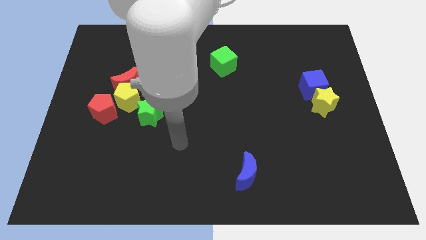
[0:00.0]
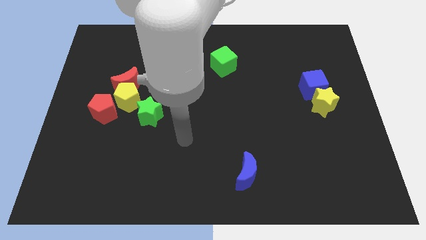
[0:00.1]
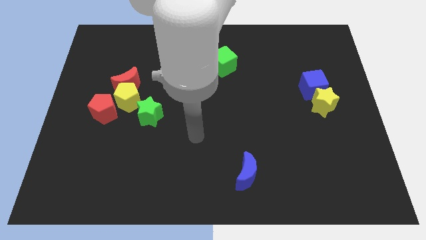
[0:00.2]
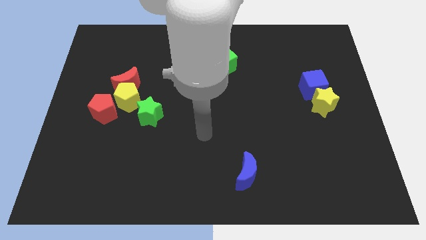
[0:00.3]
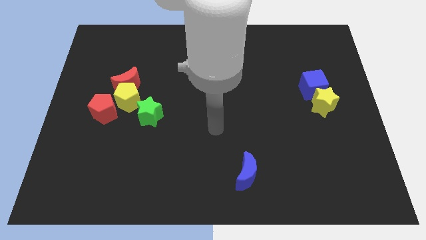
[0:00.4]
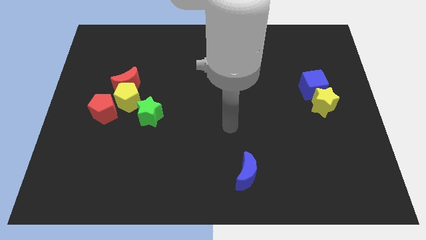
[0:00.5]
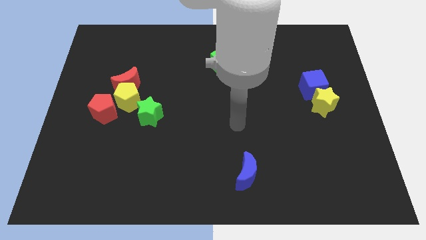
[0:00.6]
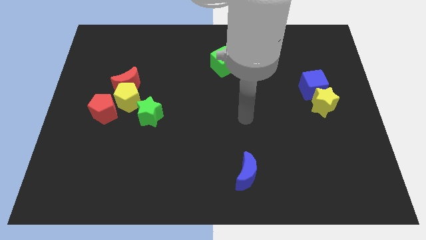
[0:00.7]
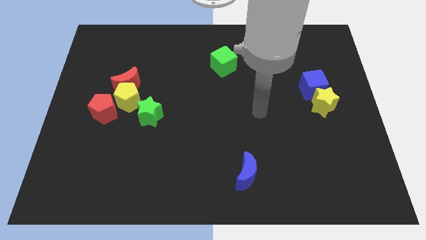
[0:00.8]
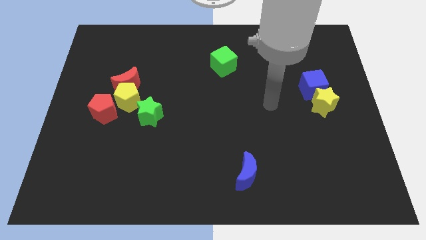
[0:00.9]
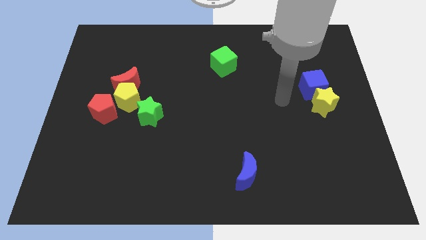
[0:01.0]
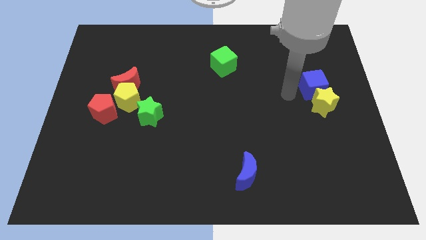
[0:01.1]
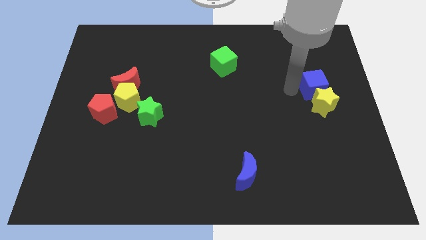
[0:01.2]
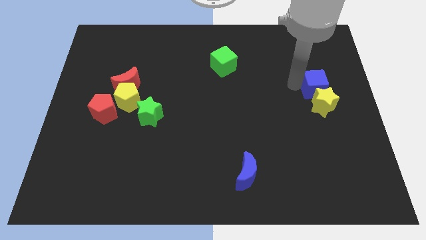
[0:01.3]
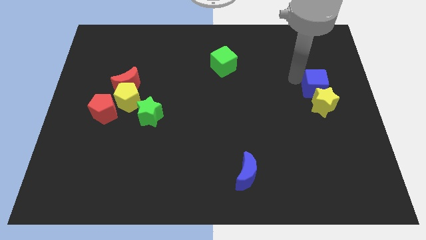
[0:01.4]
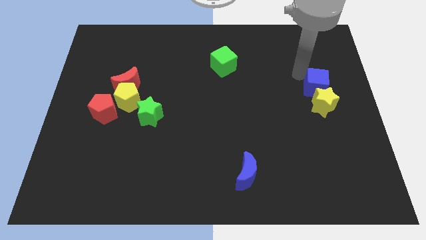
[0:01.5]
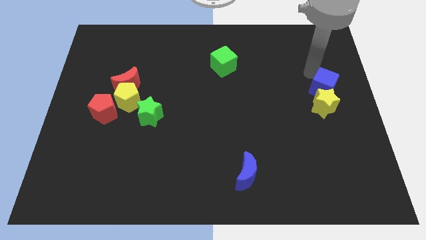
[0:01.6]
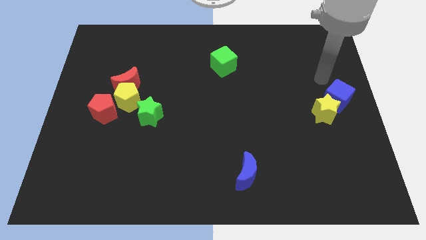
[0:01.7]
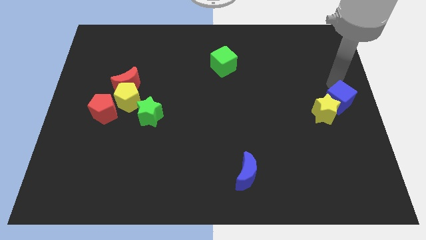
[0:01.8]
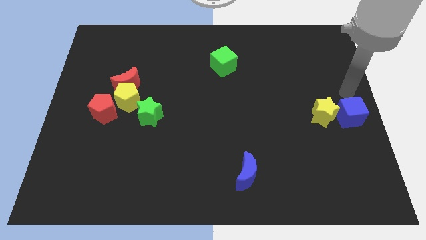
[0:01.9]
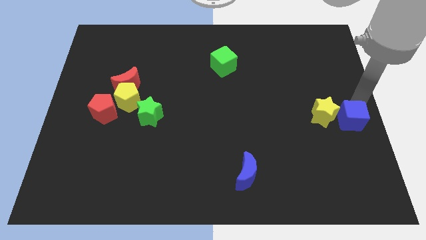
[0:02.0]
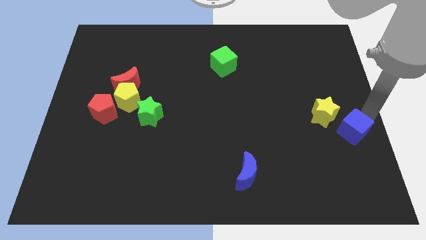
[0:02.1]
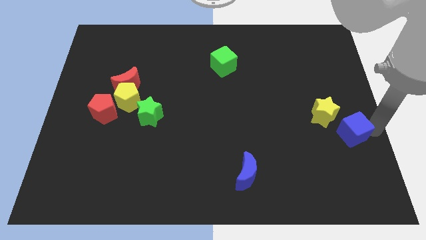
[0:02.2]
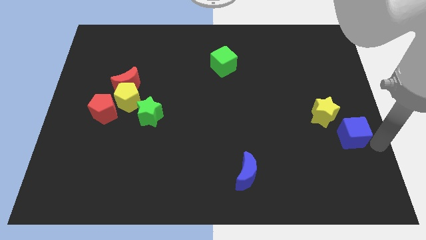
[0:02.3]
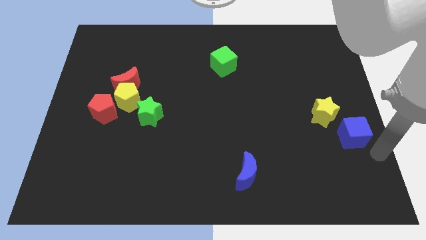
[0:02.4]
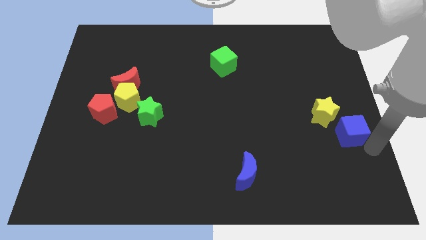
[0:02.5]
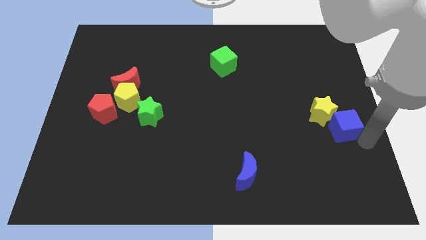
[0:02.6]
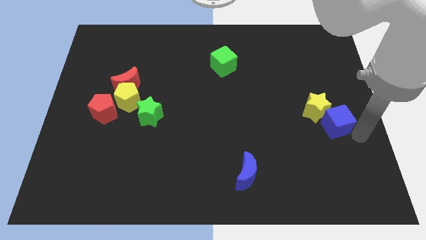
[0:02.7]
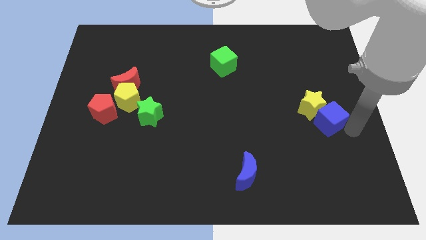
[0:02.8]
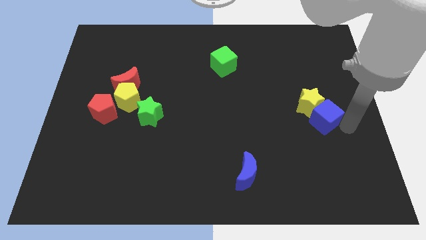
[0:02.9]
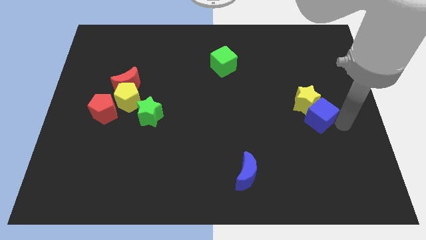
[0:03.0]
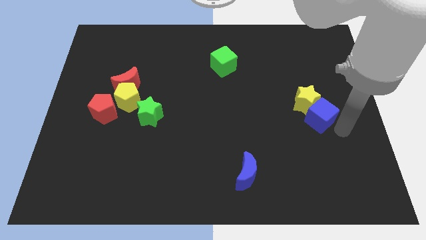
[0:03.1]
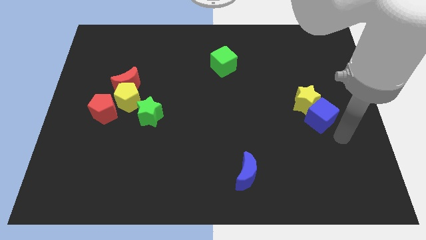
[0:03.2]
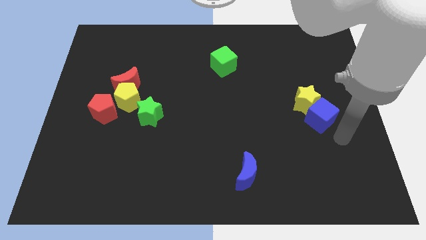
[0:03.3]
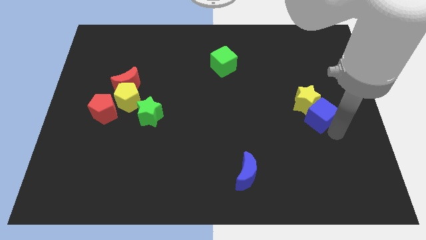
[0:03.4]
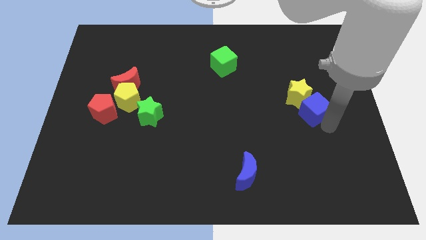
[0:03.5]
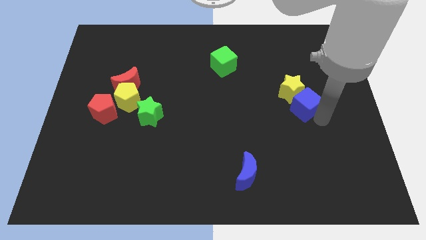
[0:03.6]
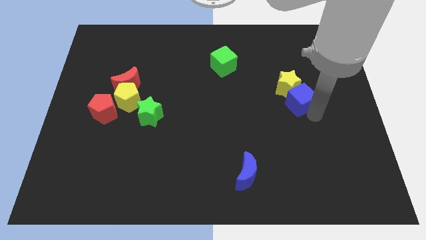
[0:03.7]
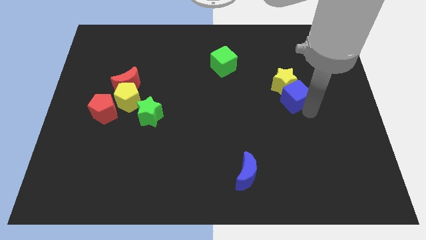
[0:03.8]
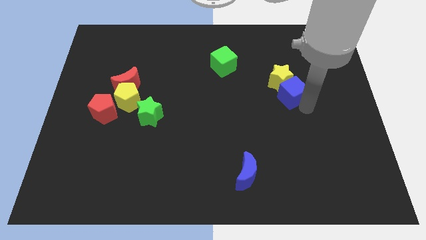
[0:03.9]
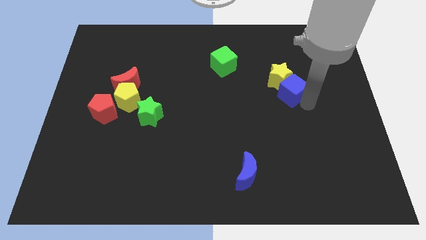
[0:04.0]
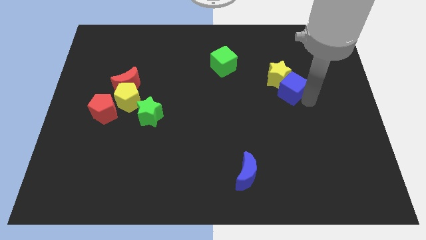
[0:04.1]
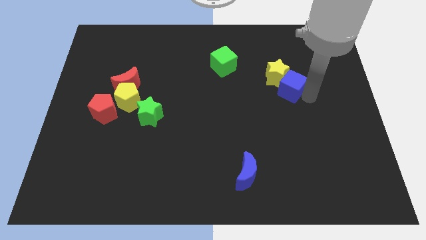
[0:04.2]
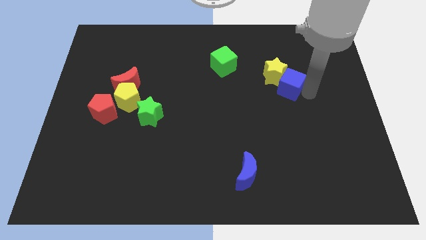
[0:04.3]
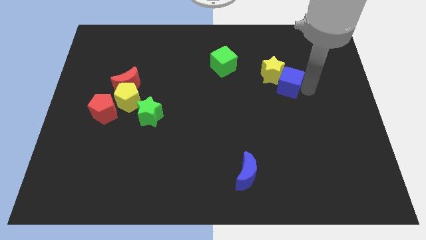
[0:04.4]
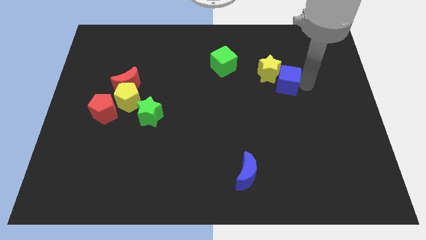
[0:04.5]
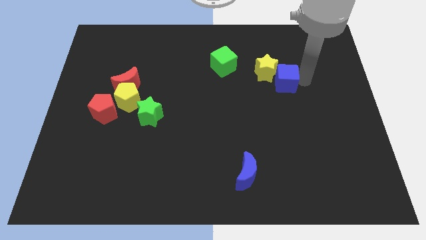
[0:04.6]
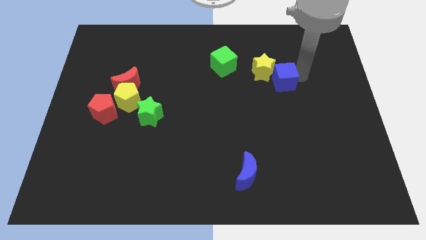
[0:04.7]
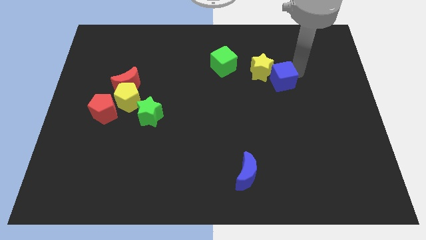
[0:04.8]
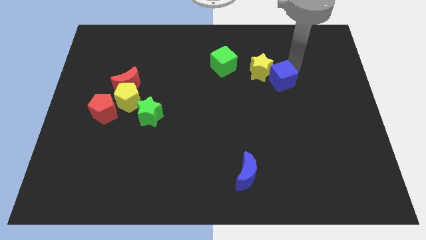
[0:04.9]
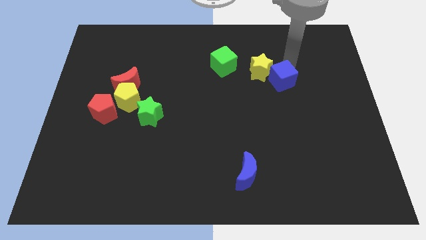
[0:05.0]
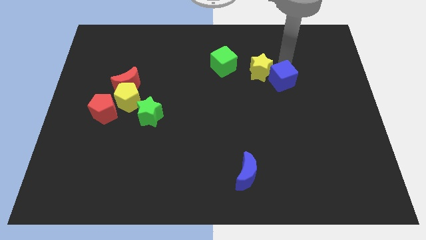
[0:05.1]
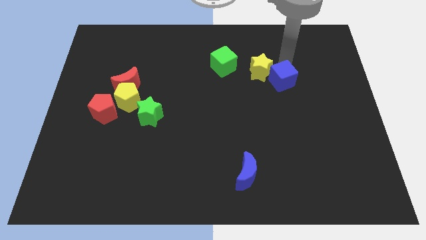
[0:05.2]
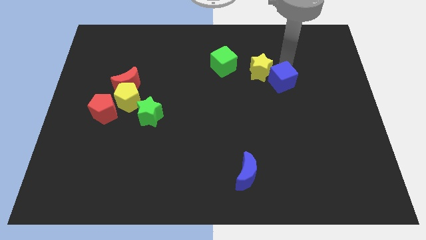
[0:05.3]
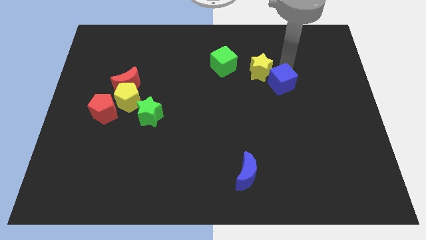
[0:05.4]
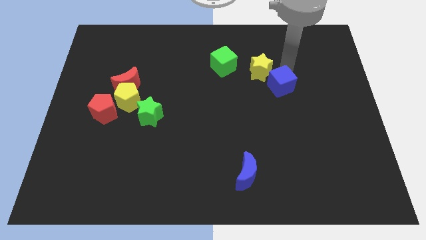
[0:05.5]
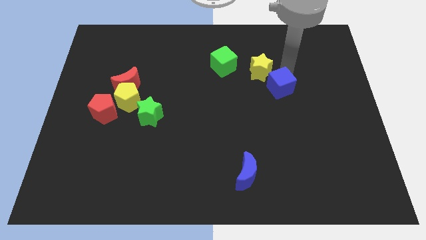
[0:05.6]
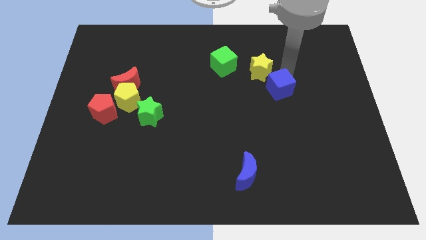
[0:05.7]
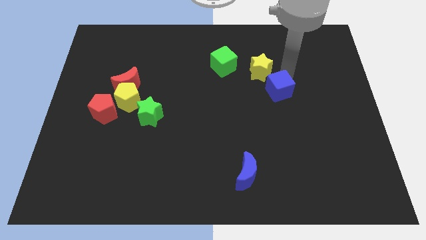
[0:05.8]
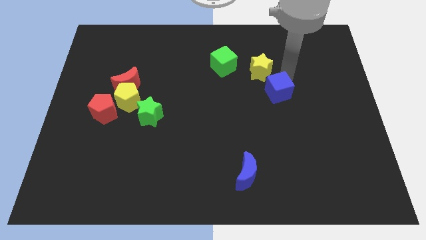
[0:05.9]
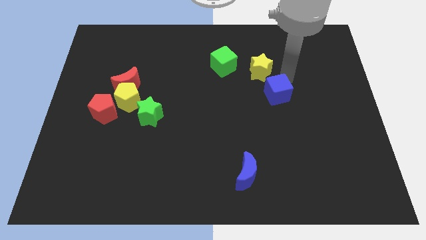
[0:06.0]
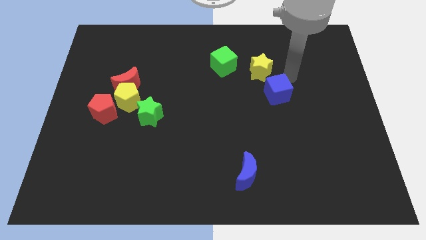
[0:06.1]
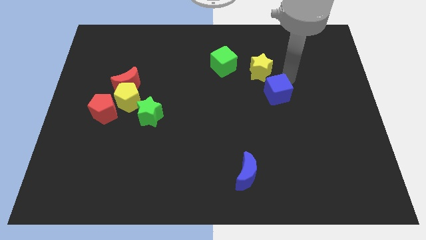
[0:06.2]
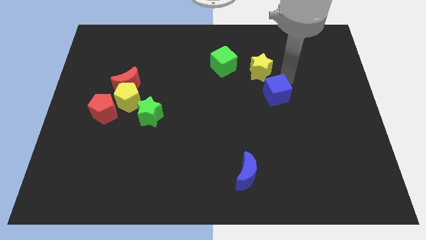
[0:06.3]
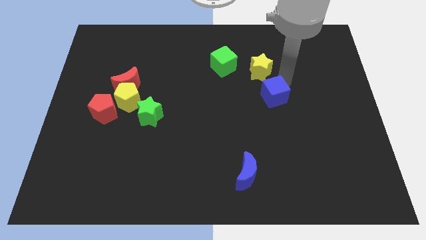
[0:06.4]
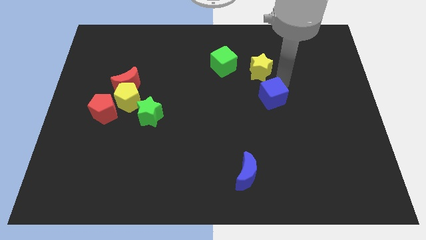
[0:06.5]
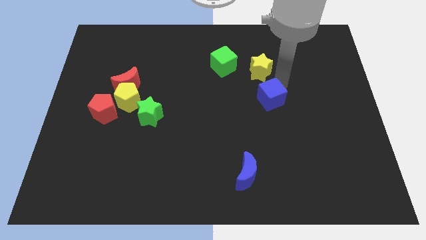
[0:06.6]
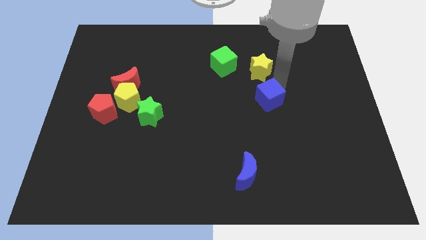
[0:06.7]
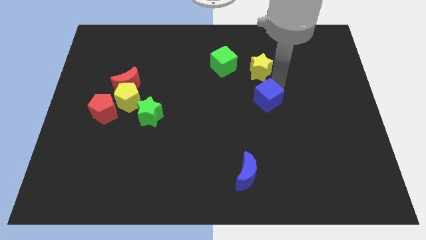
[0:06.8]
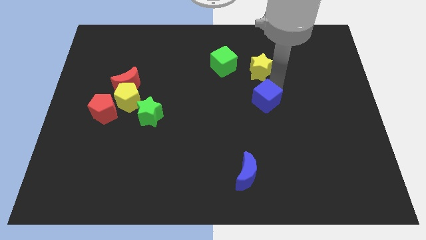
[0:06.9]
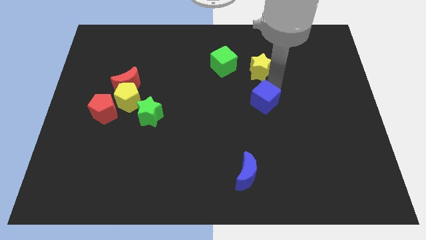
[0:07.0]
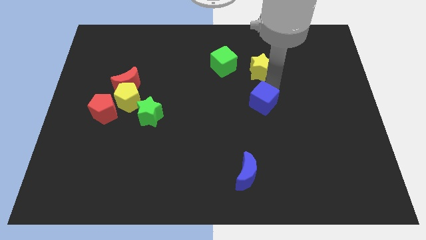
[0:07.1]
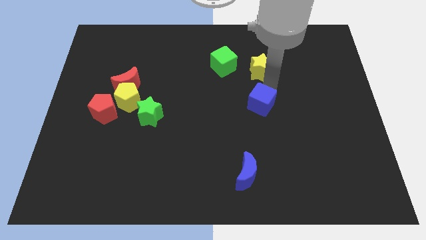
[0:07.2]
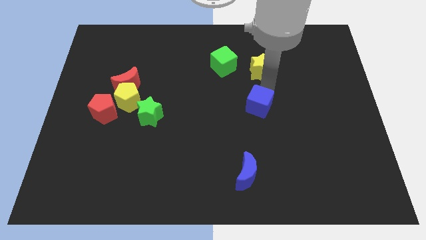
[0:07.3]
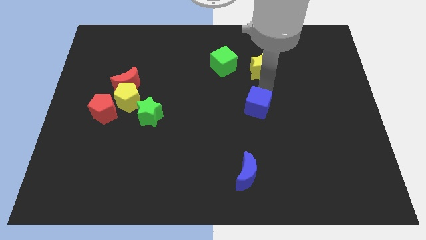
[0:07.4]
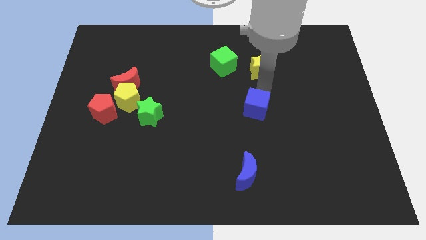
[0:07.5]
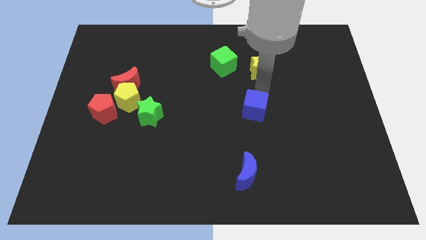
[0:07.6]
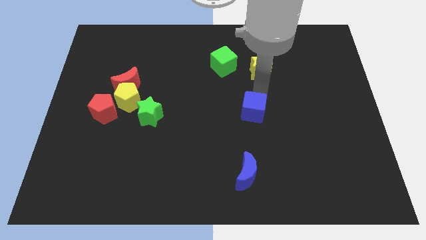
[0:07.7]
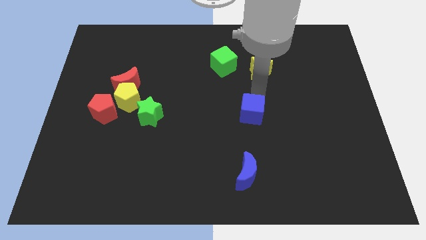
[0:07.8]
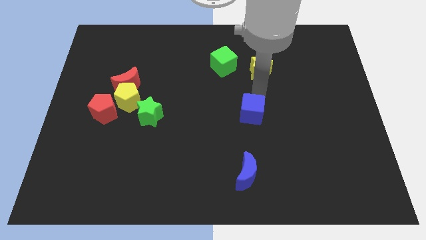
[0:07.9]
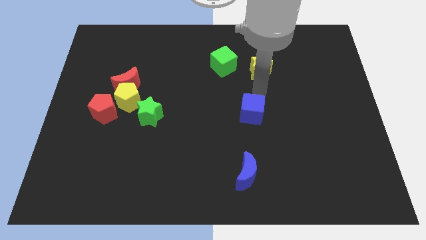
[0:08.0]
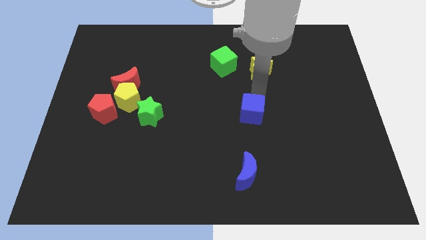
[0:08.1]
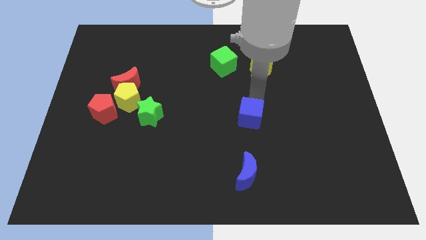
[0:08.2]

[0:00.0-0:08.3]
put the blue cube to the top of the blue moon
